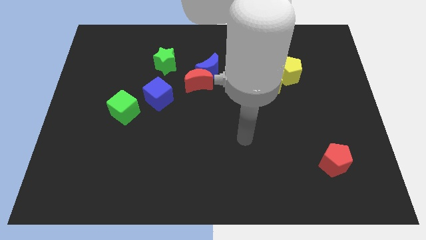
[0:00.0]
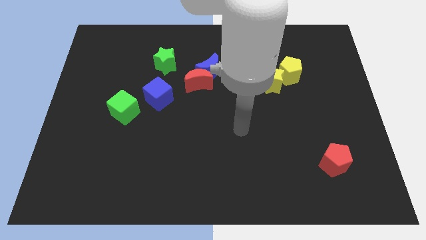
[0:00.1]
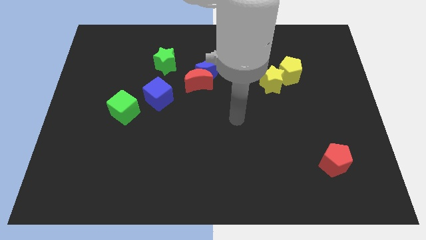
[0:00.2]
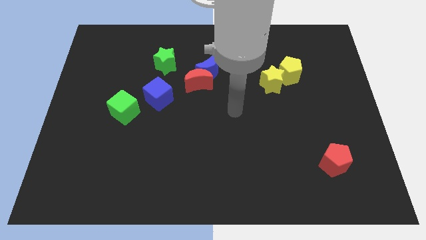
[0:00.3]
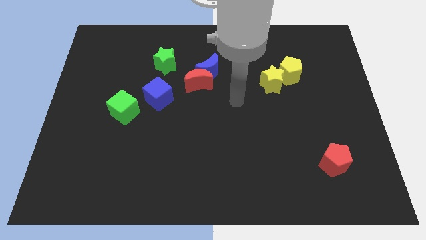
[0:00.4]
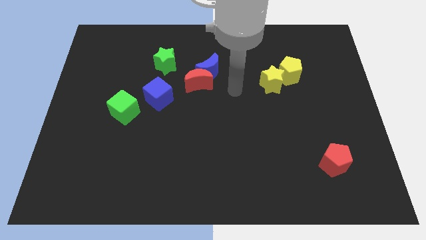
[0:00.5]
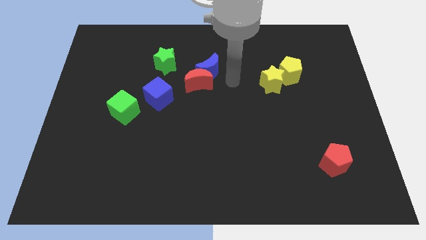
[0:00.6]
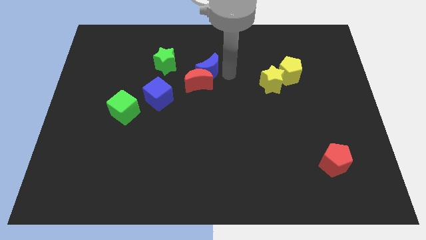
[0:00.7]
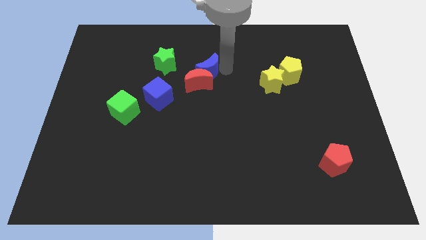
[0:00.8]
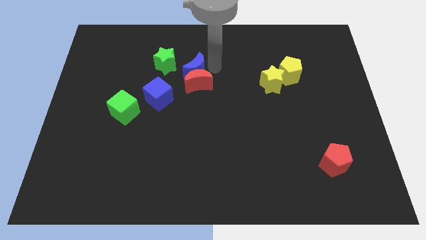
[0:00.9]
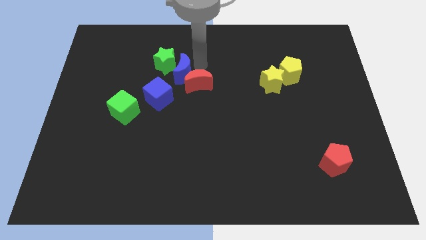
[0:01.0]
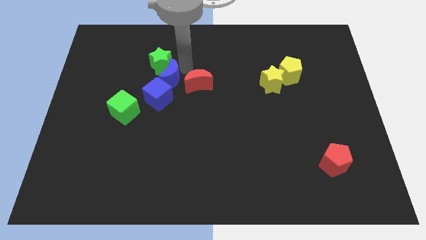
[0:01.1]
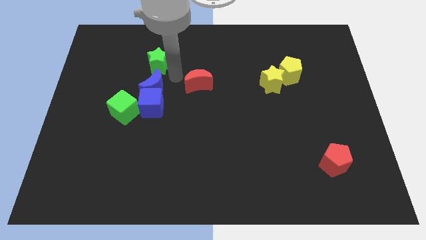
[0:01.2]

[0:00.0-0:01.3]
pull the red moon apart from the blue moon

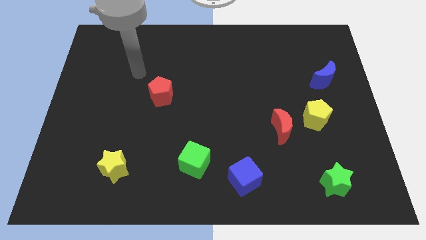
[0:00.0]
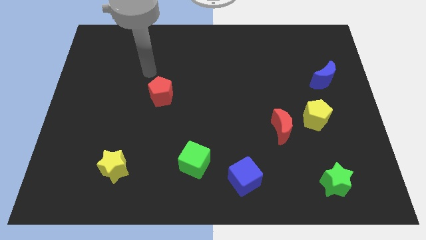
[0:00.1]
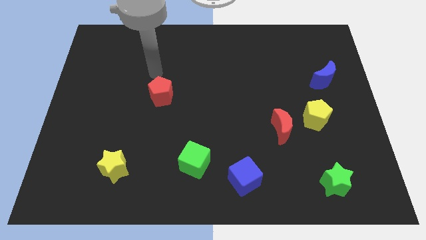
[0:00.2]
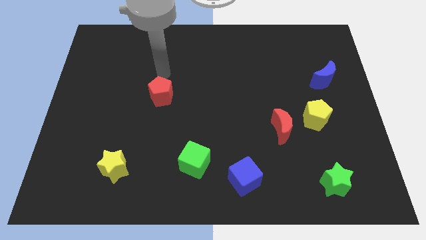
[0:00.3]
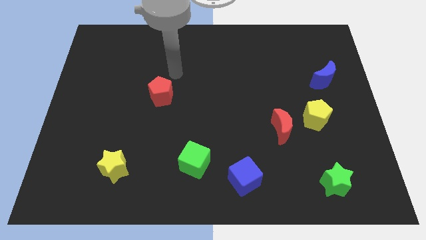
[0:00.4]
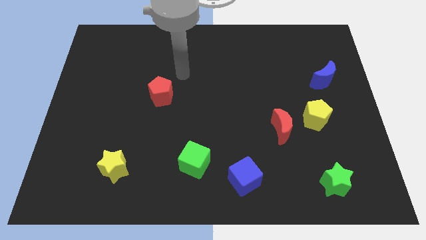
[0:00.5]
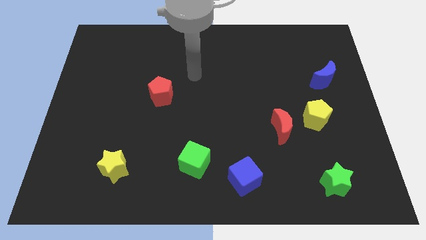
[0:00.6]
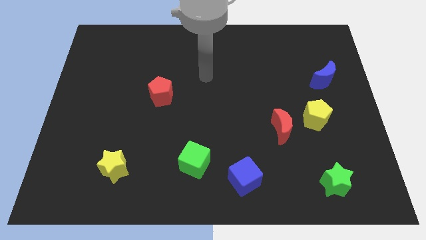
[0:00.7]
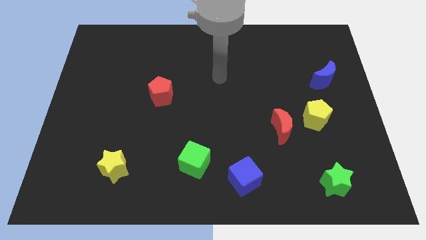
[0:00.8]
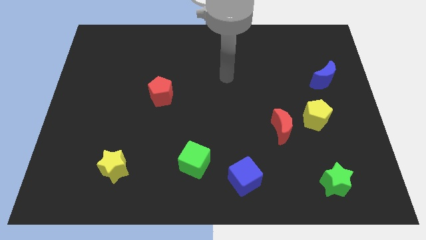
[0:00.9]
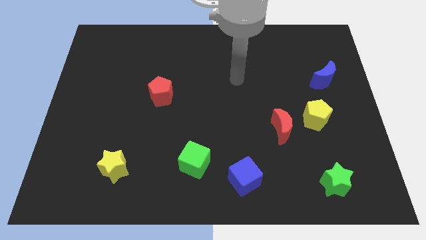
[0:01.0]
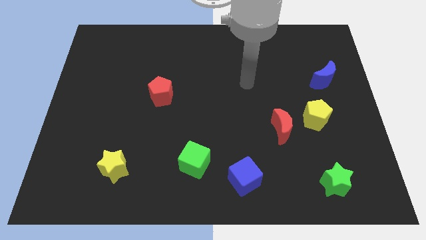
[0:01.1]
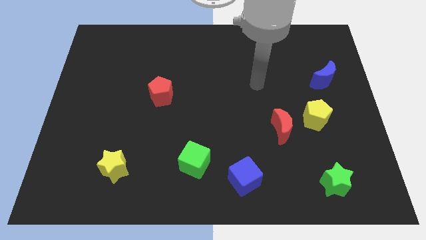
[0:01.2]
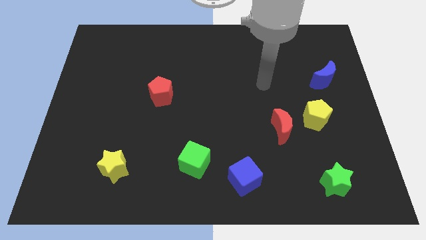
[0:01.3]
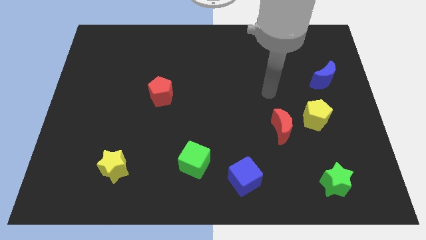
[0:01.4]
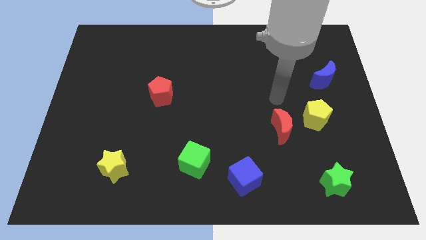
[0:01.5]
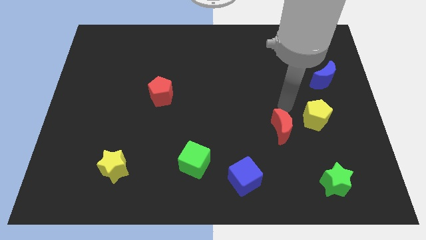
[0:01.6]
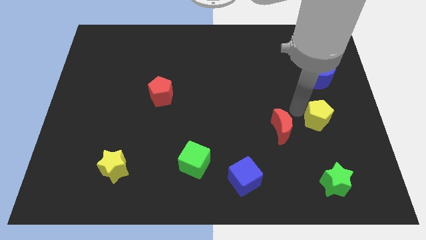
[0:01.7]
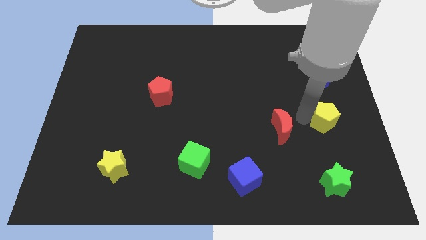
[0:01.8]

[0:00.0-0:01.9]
pull the red moon apart from the yellow pentagon

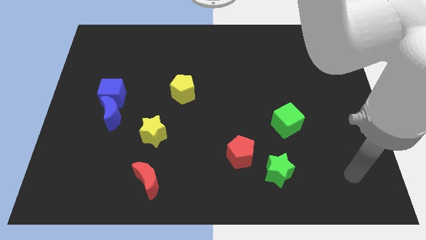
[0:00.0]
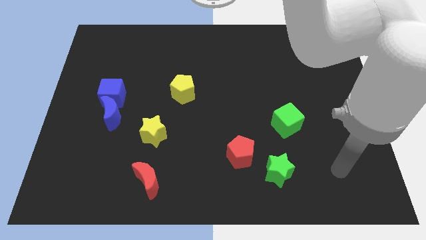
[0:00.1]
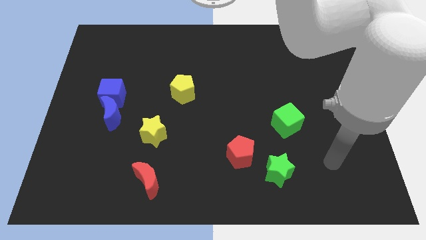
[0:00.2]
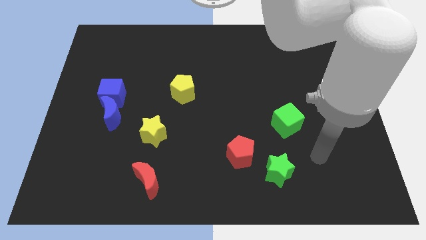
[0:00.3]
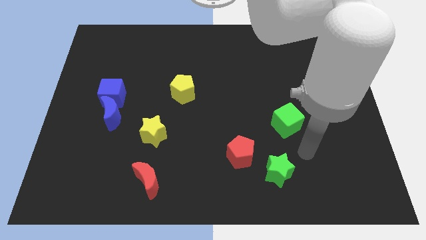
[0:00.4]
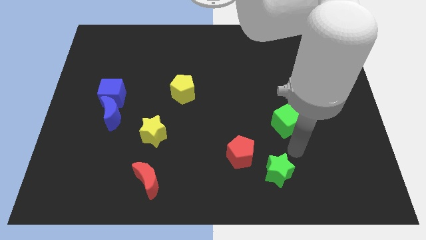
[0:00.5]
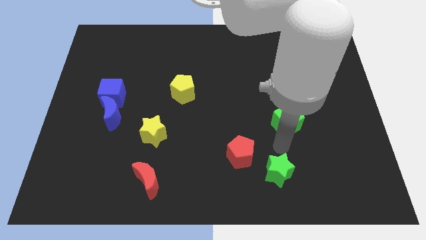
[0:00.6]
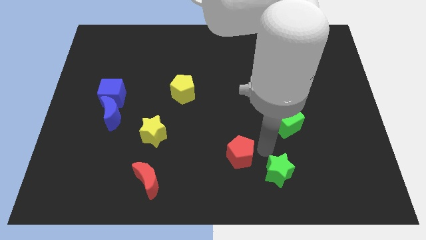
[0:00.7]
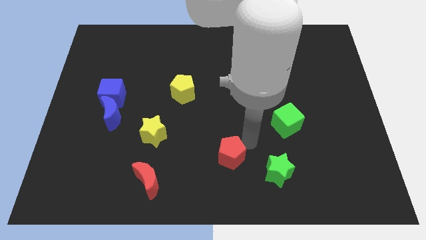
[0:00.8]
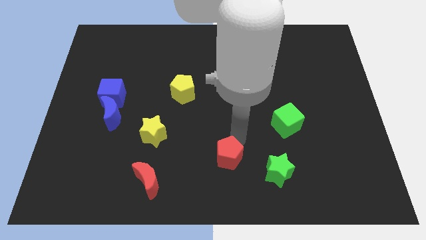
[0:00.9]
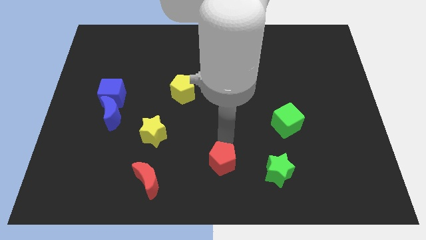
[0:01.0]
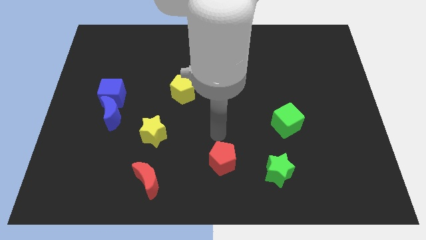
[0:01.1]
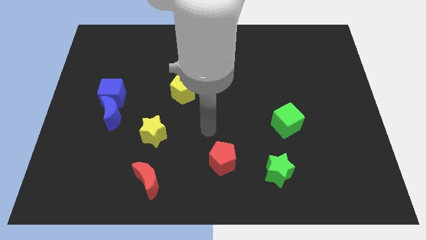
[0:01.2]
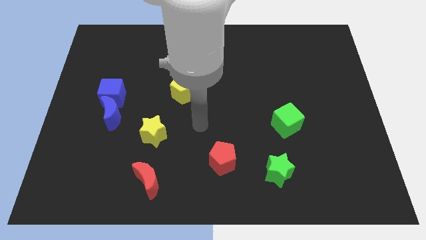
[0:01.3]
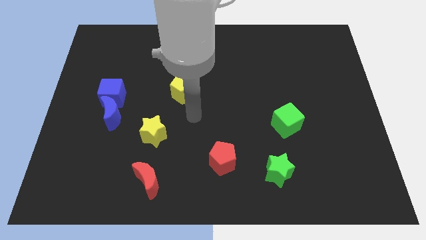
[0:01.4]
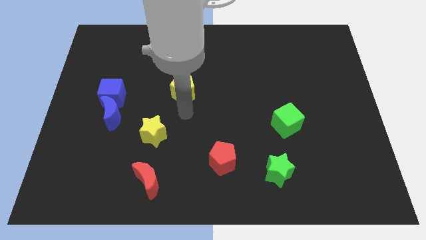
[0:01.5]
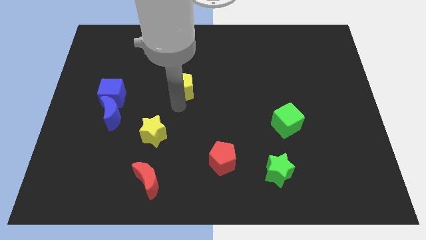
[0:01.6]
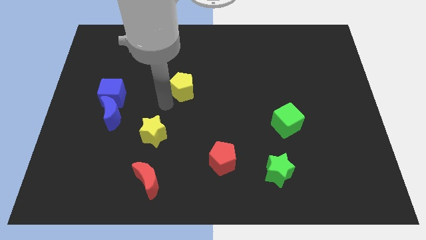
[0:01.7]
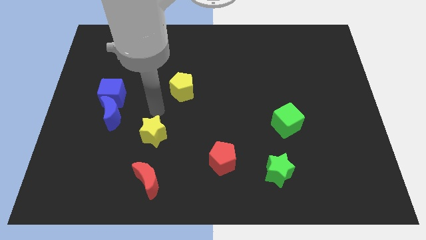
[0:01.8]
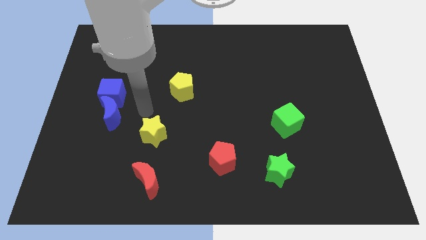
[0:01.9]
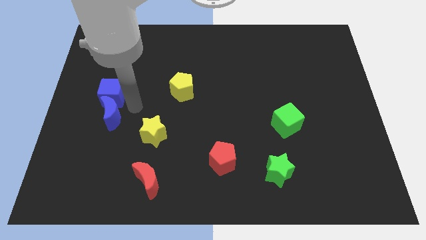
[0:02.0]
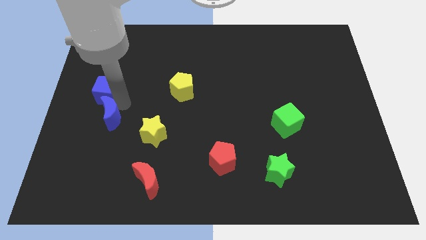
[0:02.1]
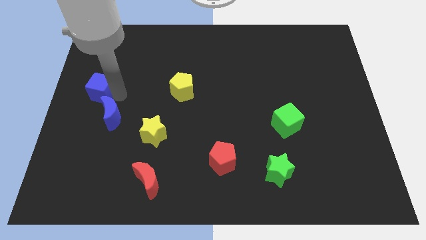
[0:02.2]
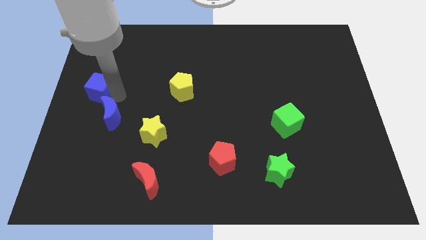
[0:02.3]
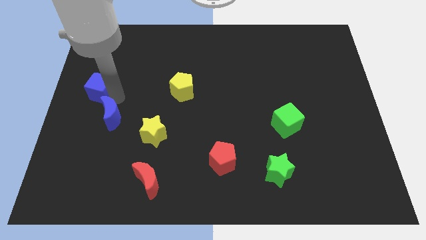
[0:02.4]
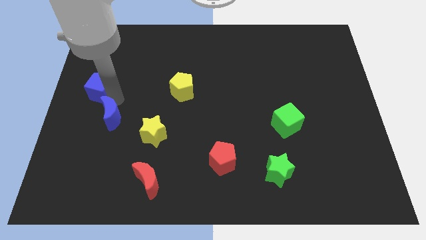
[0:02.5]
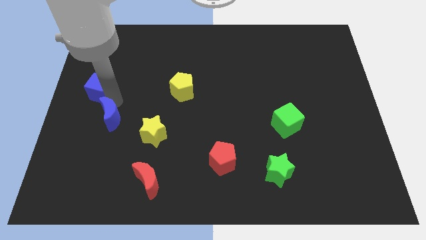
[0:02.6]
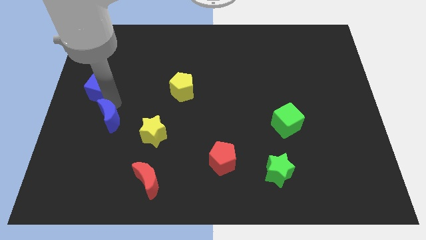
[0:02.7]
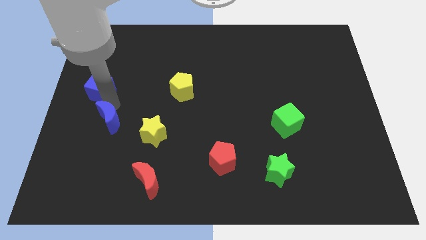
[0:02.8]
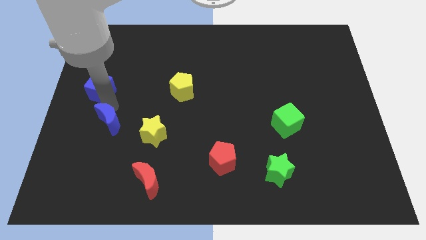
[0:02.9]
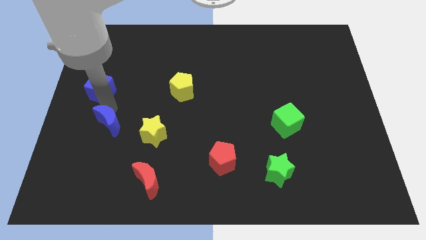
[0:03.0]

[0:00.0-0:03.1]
move the blue moon away from the blue cube

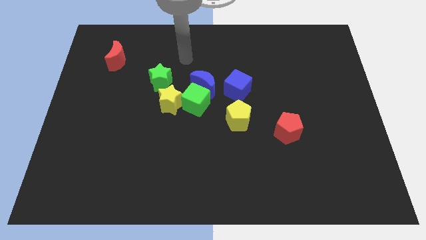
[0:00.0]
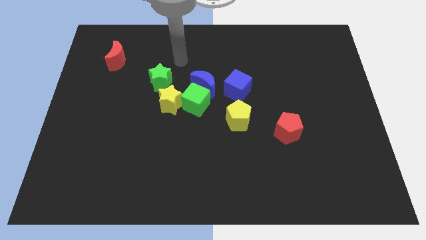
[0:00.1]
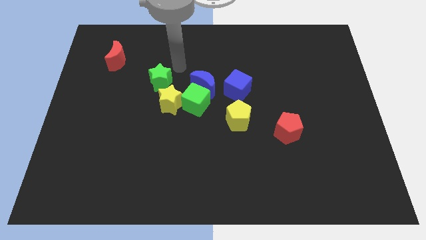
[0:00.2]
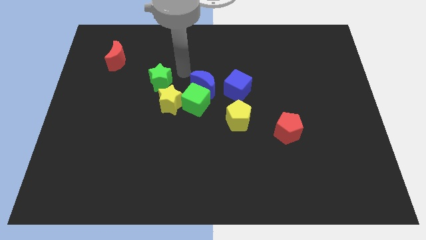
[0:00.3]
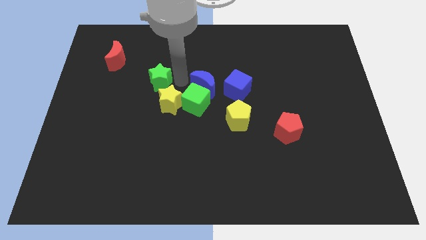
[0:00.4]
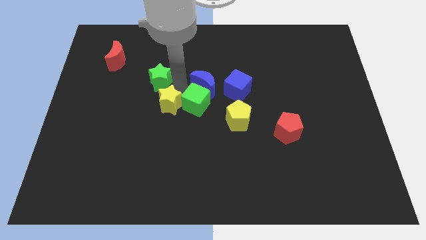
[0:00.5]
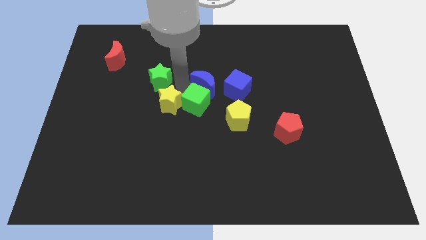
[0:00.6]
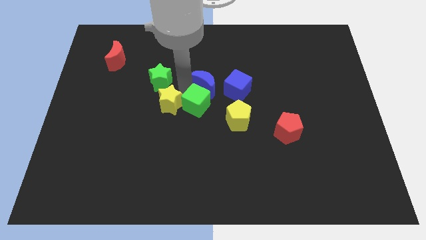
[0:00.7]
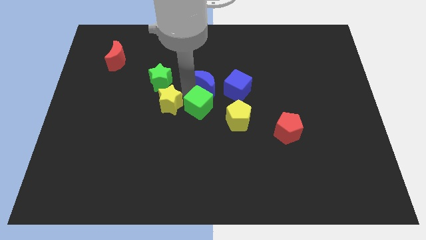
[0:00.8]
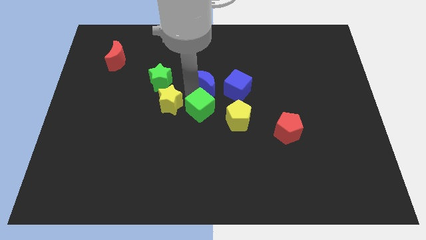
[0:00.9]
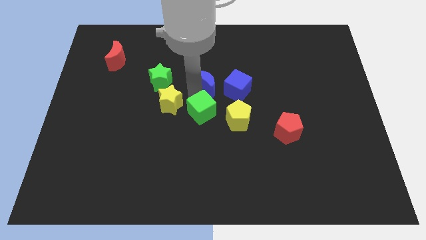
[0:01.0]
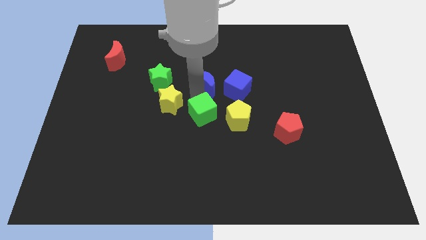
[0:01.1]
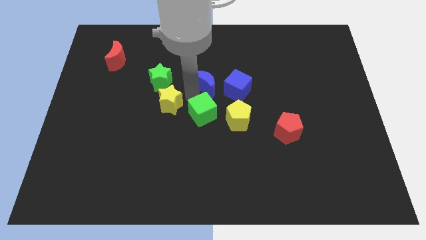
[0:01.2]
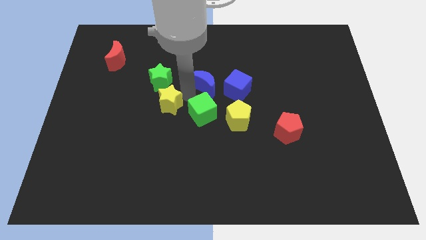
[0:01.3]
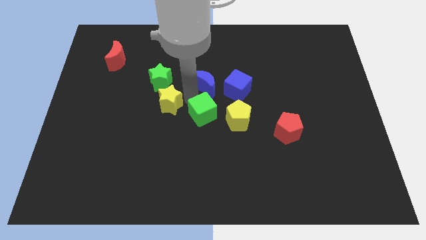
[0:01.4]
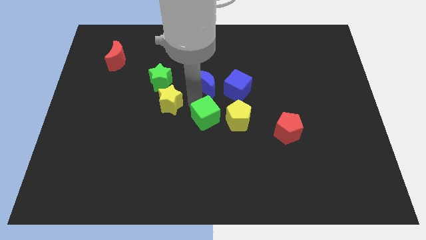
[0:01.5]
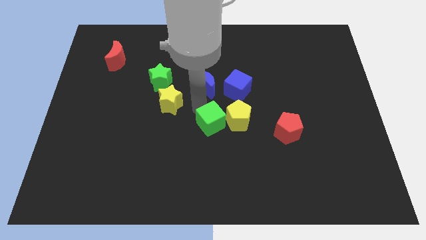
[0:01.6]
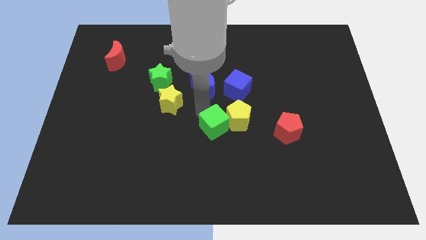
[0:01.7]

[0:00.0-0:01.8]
separate the green cube from the blue moon and yellow star

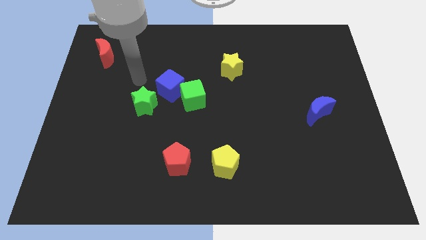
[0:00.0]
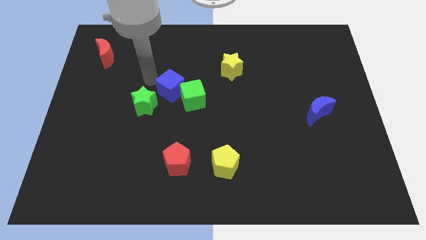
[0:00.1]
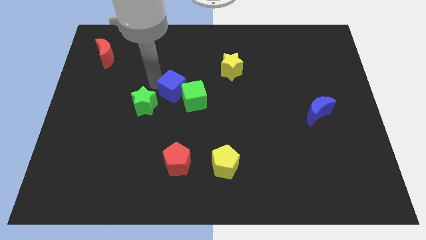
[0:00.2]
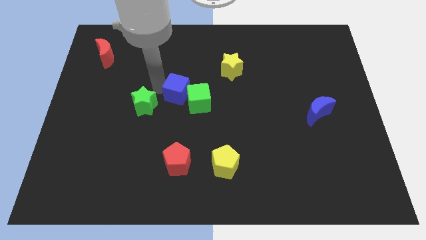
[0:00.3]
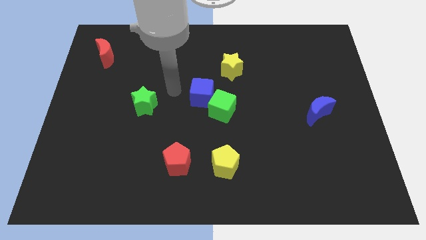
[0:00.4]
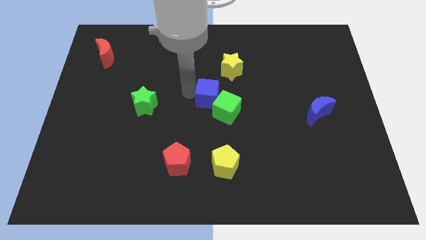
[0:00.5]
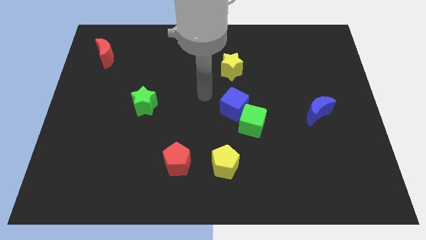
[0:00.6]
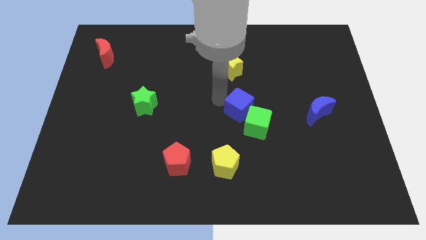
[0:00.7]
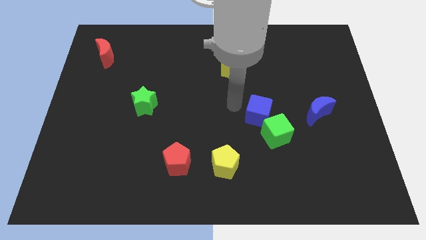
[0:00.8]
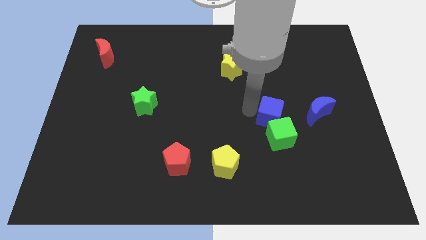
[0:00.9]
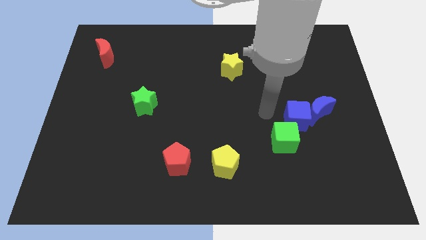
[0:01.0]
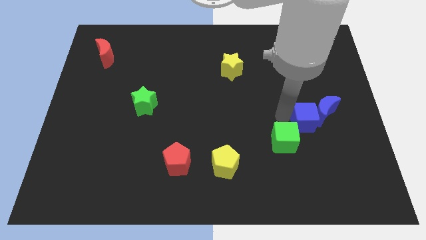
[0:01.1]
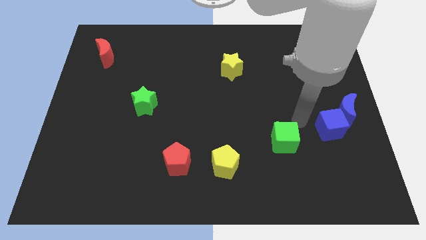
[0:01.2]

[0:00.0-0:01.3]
separate the green cube from the blue cube
